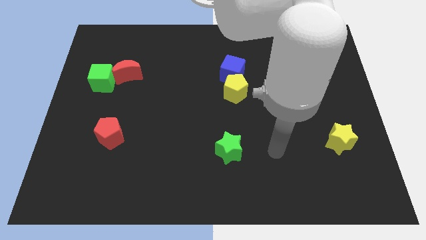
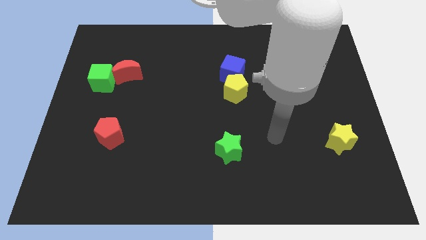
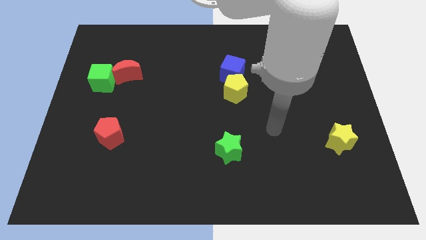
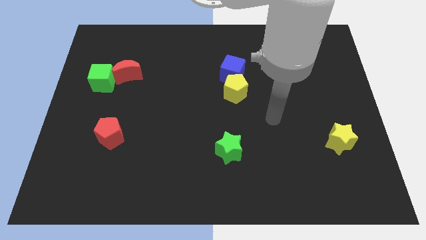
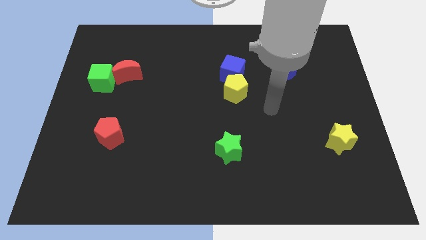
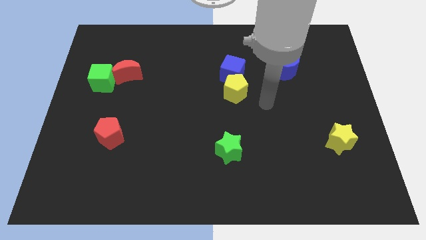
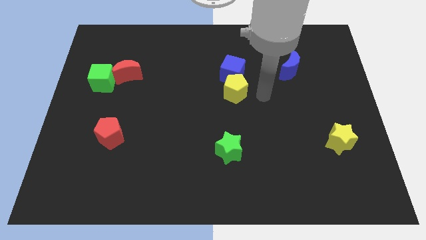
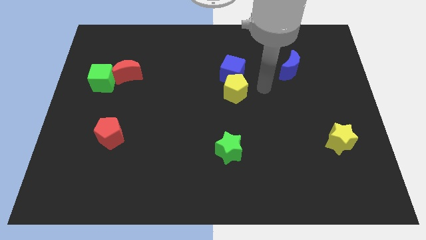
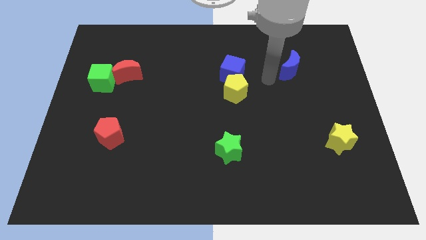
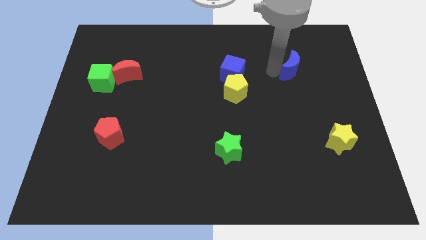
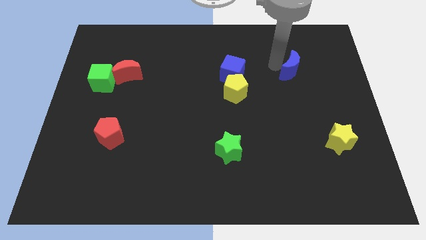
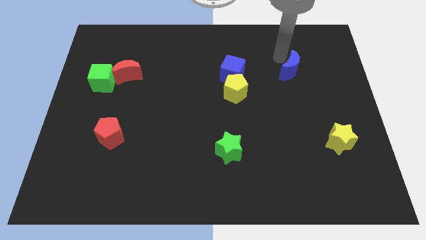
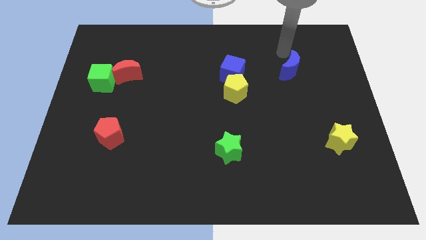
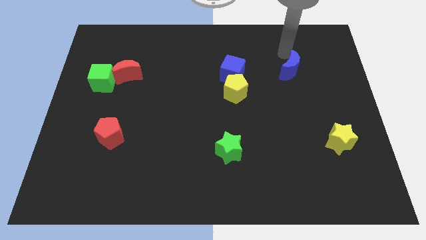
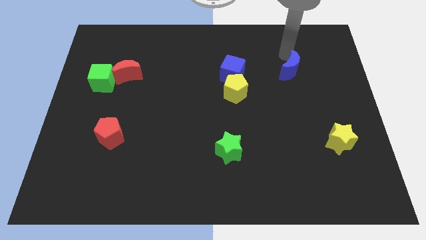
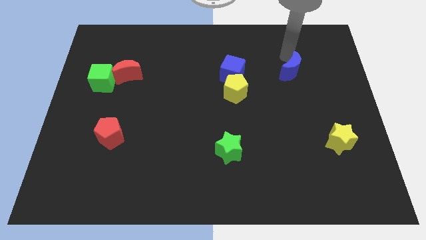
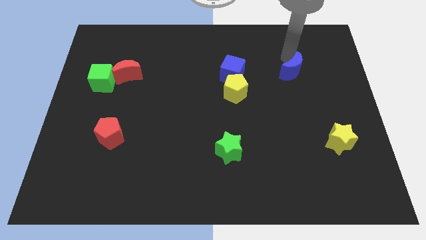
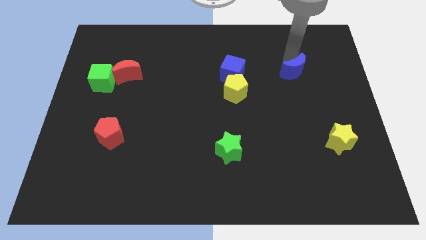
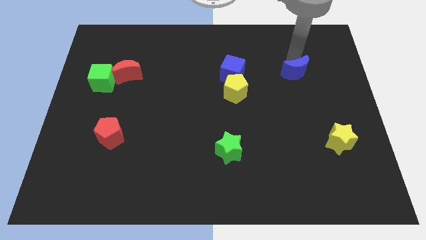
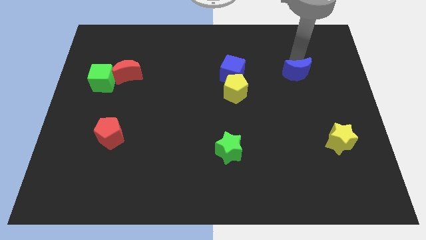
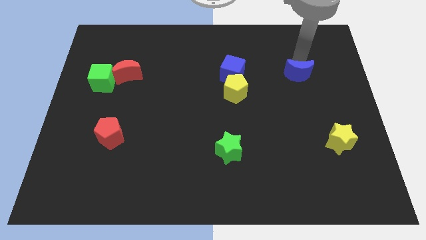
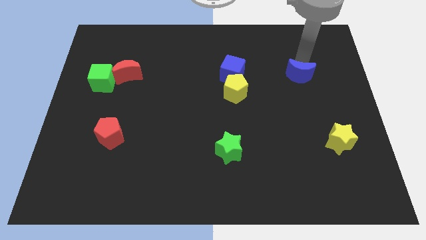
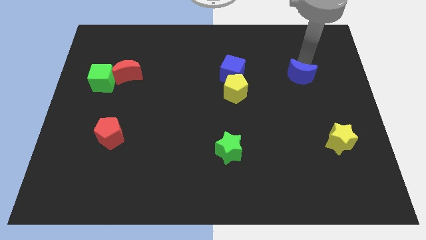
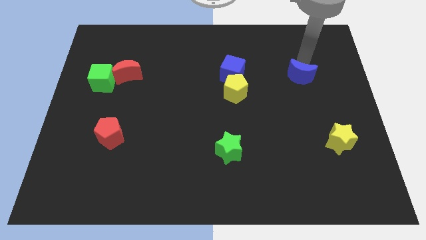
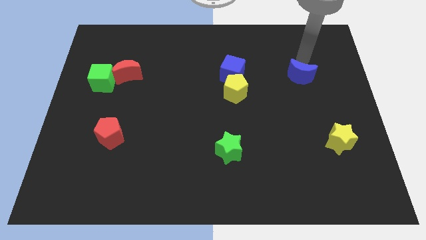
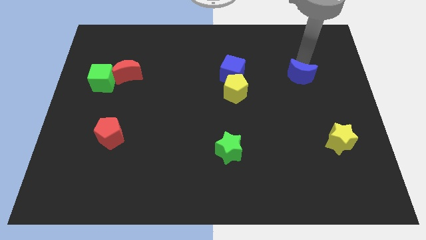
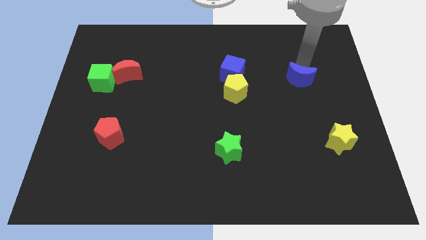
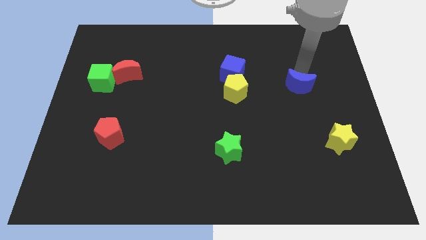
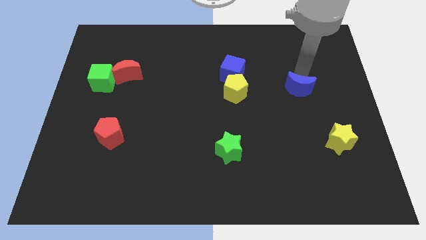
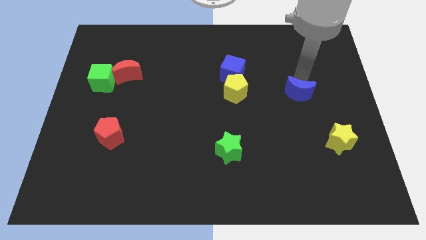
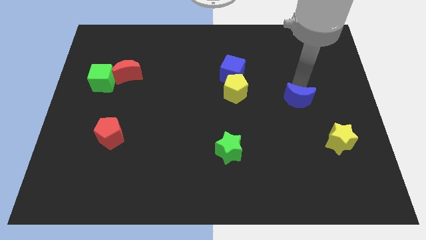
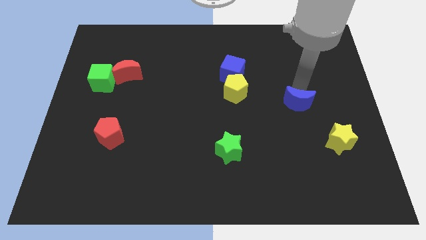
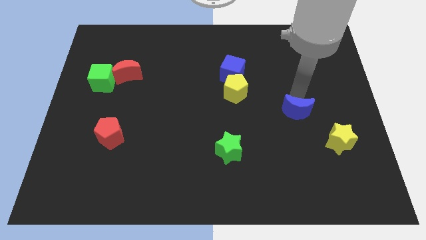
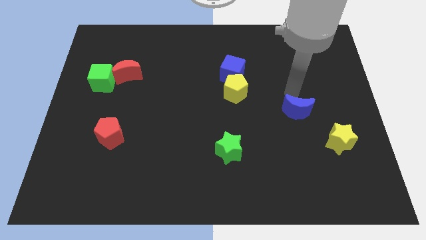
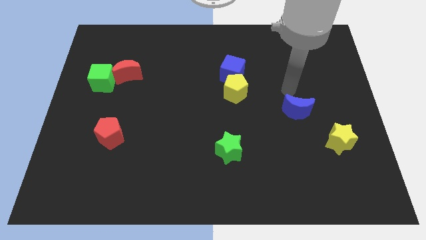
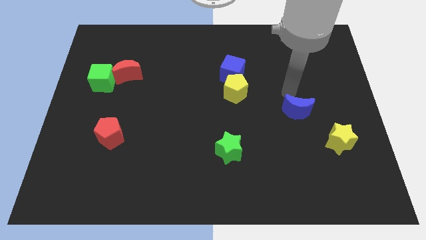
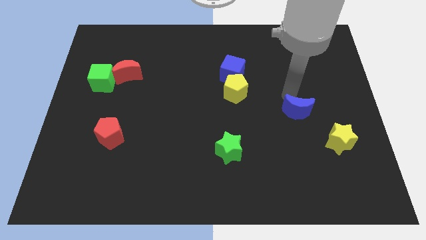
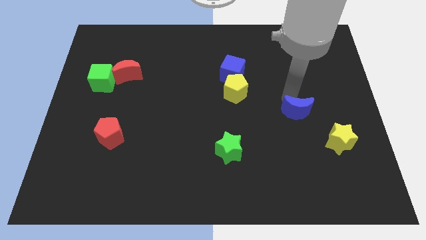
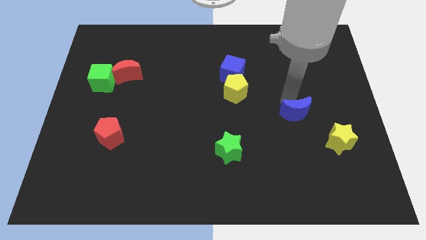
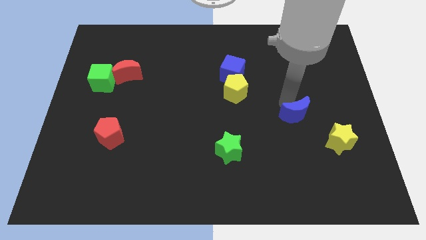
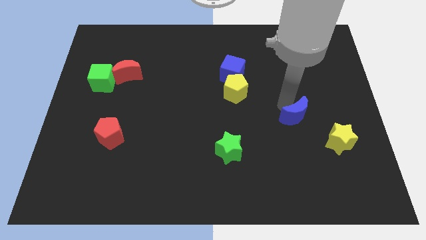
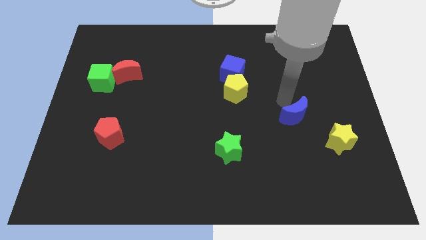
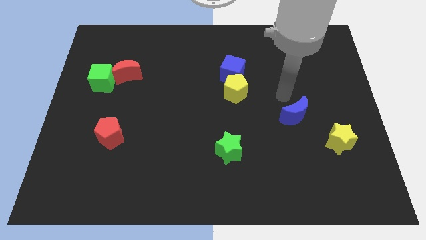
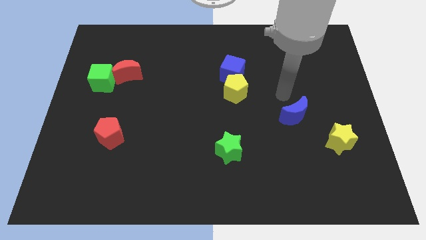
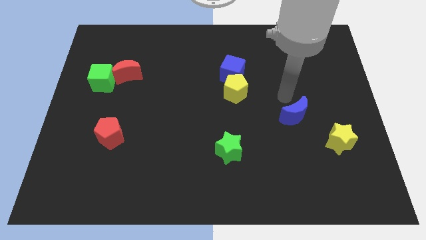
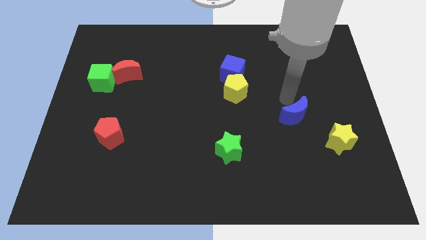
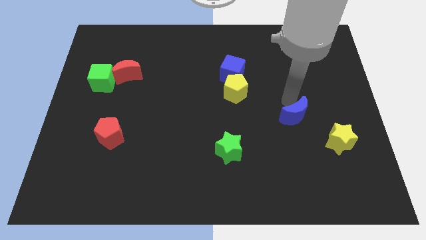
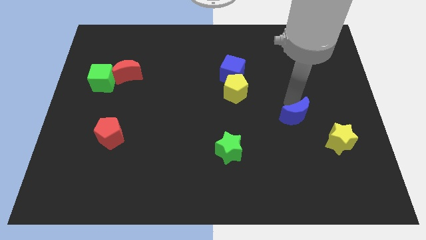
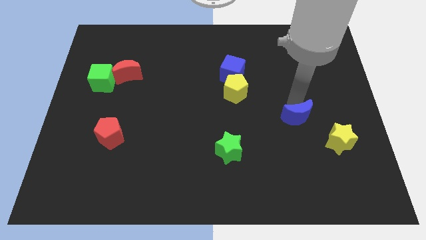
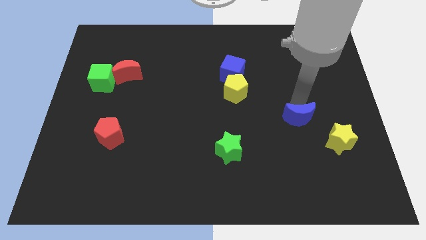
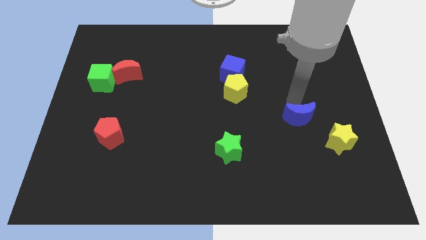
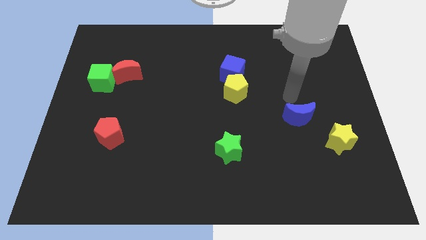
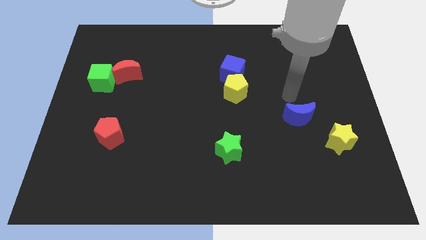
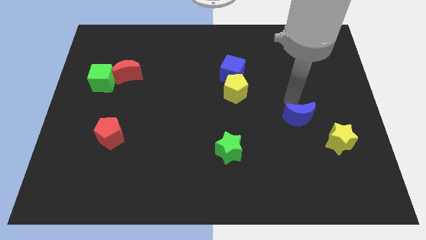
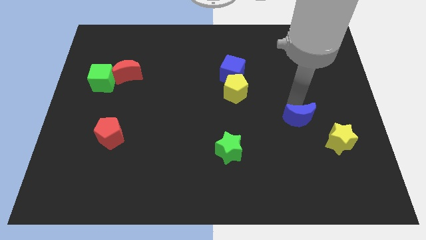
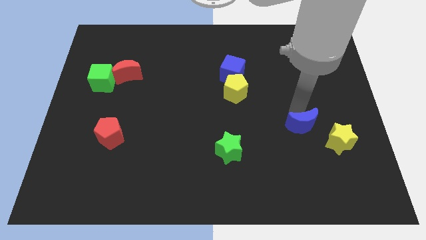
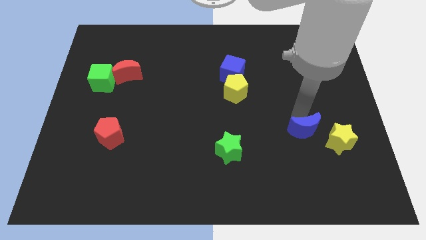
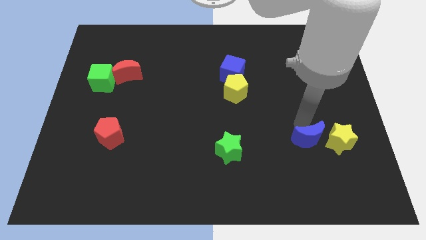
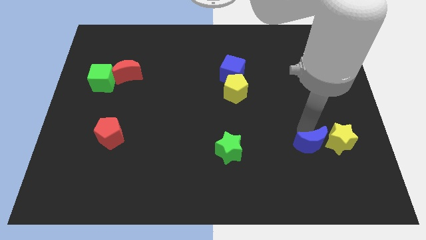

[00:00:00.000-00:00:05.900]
put the blue moon to the bottom left side of the yellow star
